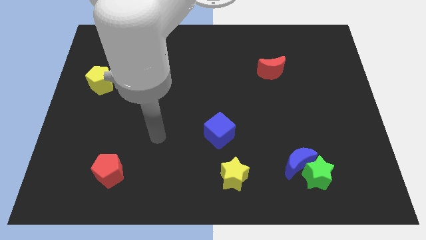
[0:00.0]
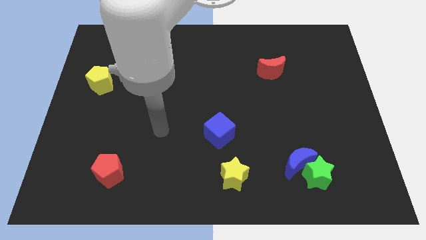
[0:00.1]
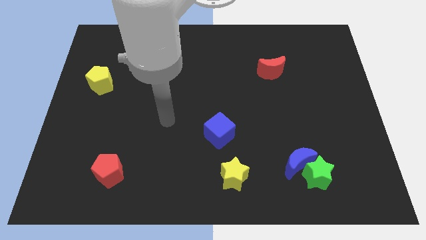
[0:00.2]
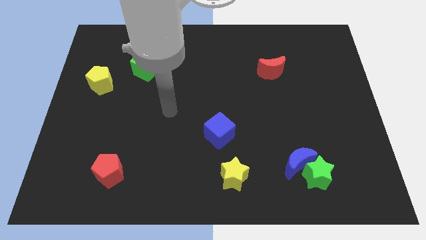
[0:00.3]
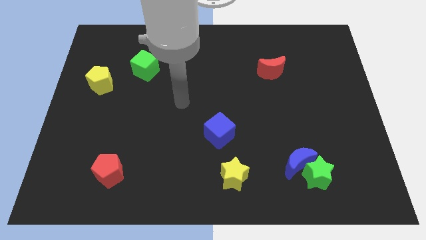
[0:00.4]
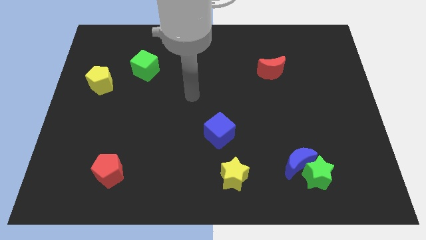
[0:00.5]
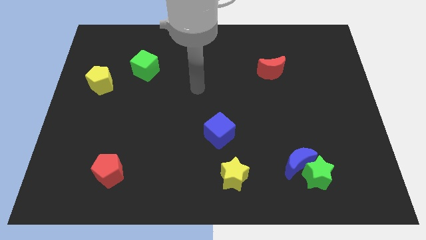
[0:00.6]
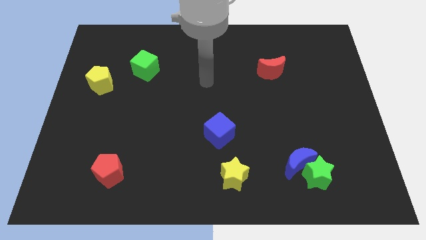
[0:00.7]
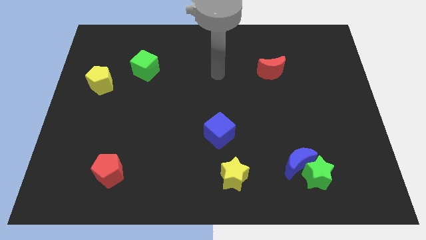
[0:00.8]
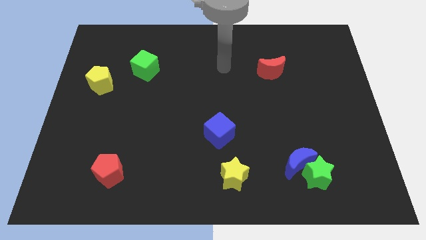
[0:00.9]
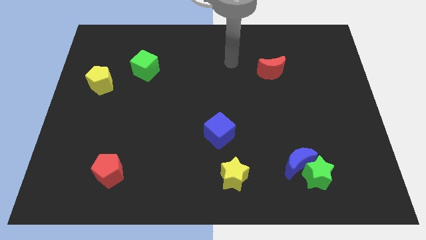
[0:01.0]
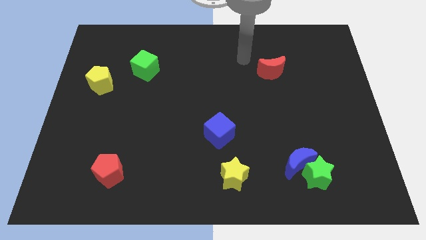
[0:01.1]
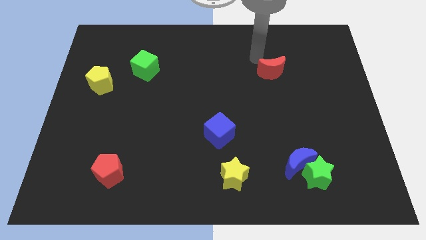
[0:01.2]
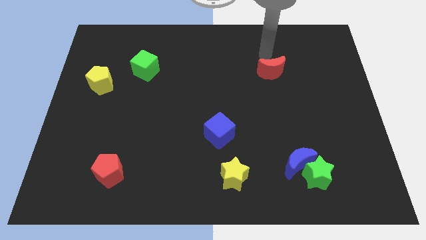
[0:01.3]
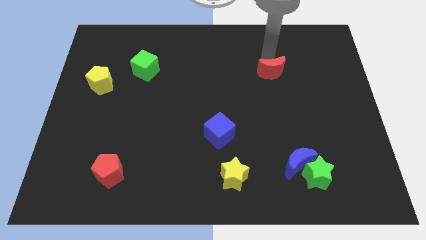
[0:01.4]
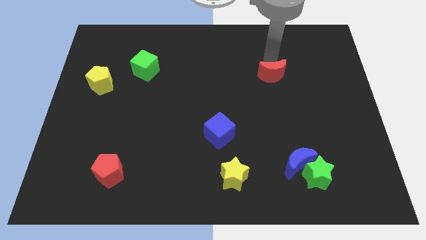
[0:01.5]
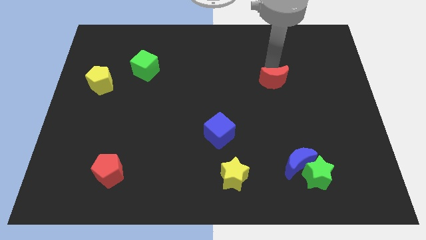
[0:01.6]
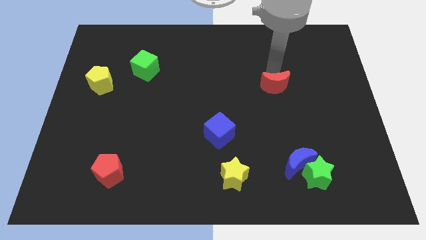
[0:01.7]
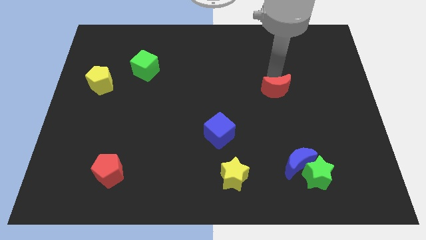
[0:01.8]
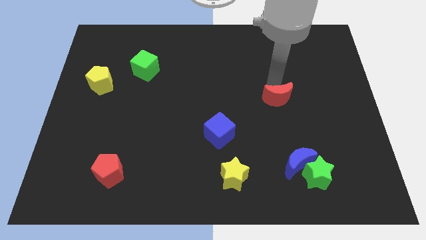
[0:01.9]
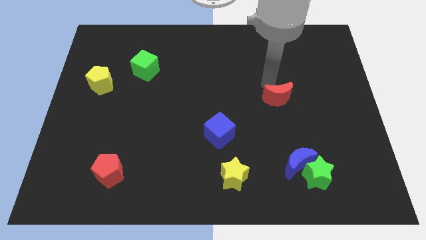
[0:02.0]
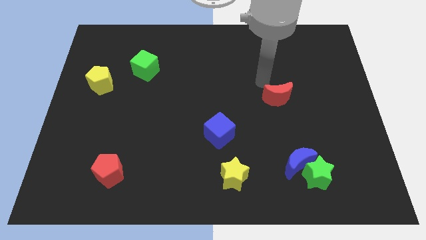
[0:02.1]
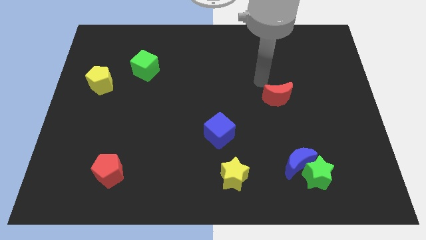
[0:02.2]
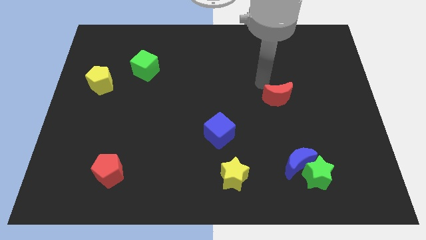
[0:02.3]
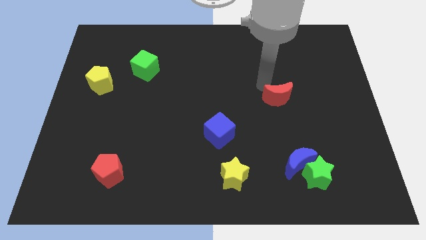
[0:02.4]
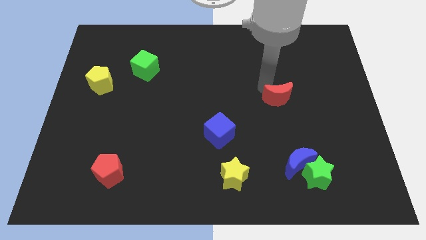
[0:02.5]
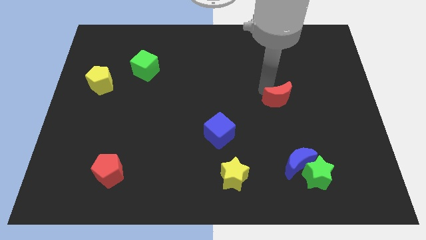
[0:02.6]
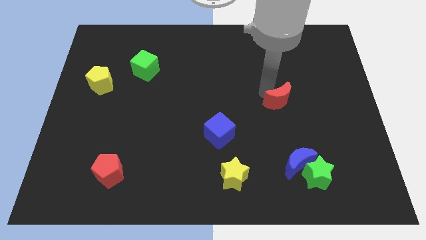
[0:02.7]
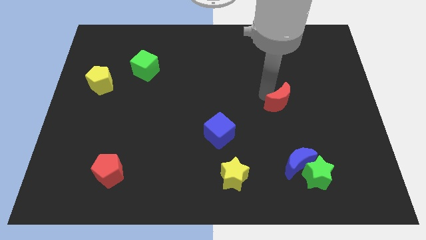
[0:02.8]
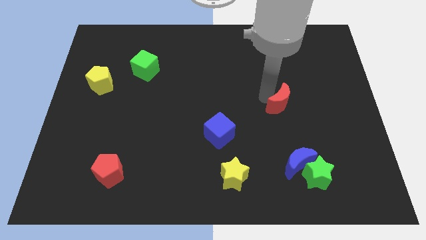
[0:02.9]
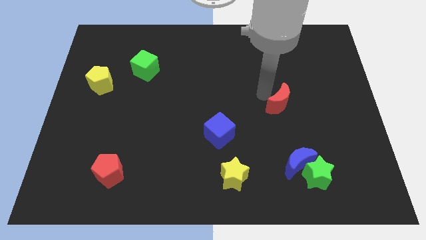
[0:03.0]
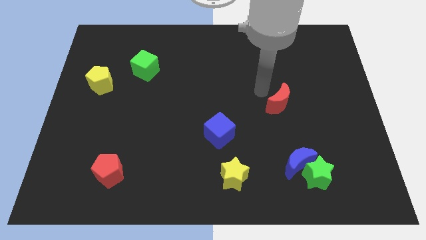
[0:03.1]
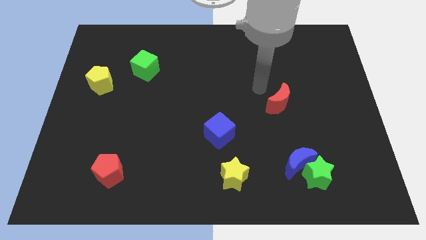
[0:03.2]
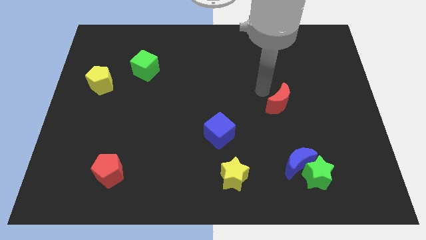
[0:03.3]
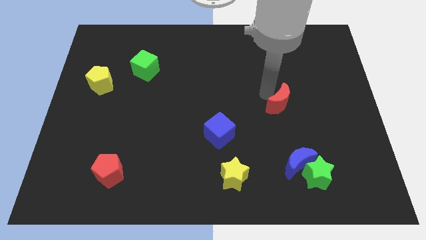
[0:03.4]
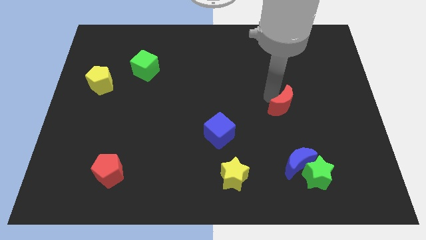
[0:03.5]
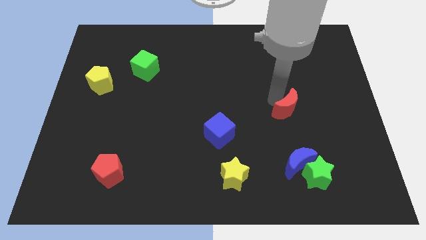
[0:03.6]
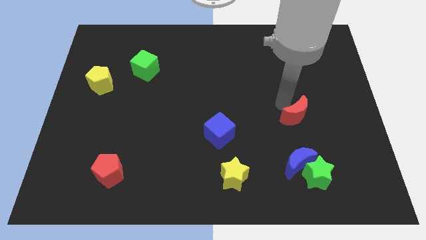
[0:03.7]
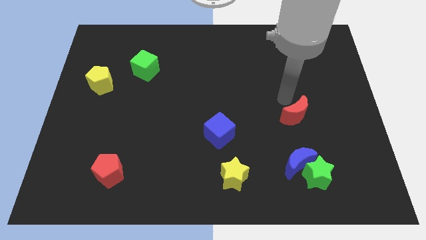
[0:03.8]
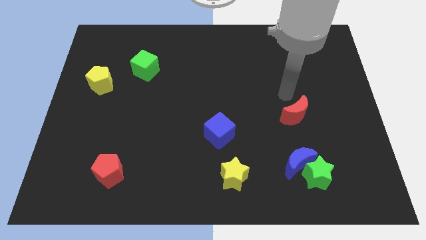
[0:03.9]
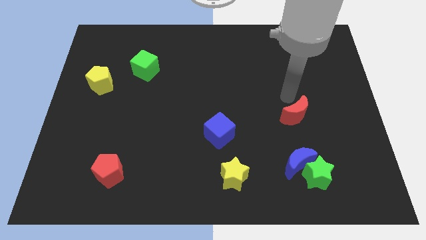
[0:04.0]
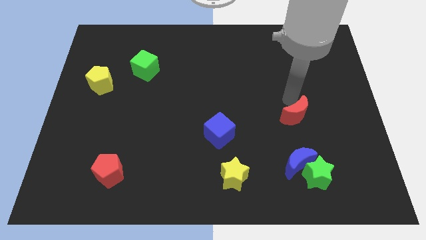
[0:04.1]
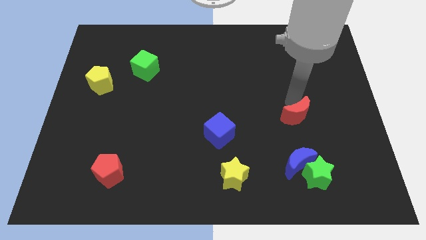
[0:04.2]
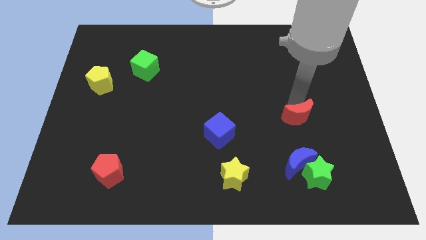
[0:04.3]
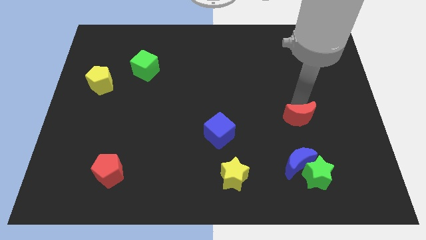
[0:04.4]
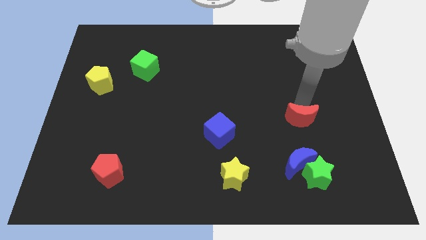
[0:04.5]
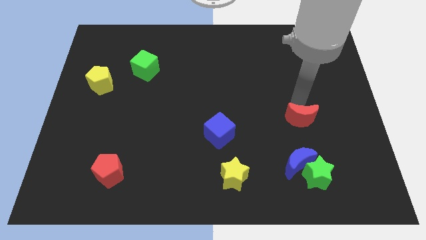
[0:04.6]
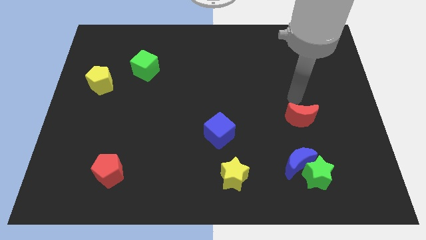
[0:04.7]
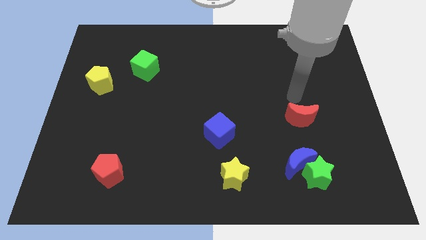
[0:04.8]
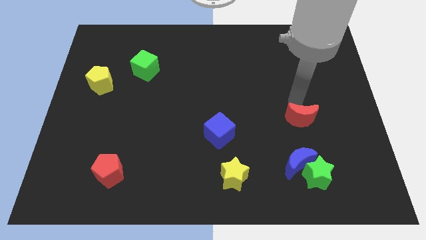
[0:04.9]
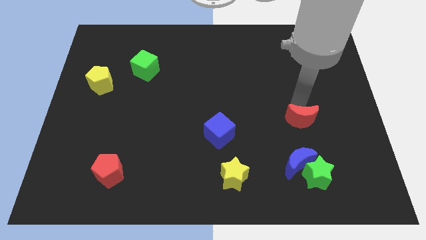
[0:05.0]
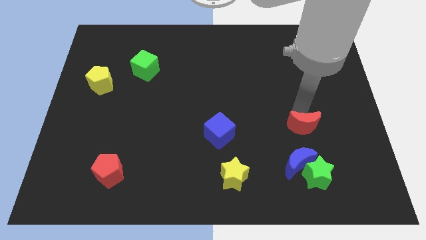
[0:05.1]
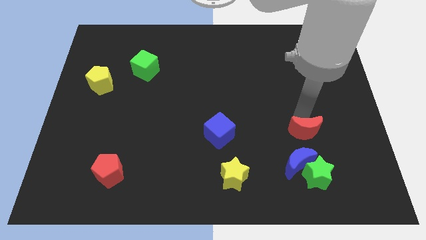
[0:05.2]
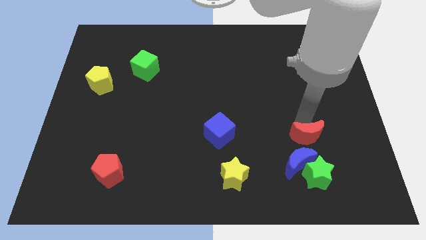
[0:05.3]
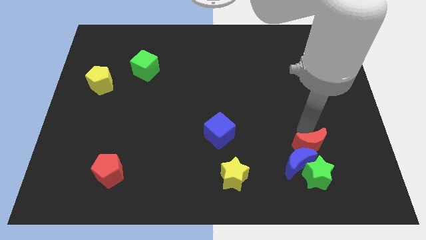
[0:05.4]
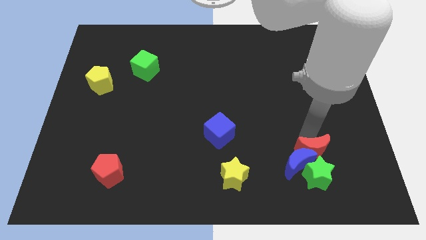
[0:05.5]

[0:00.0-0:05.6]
push the red moon close to the green star

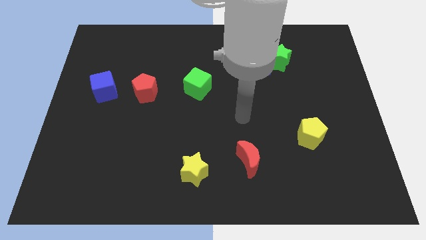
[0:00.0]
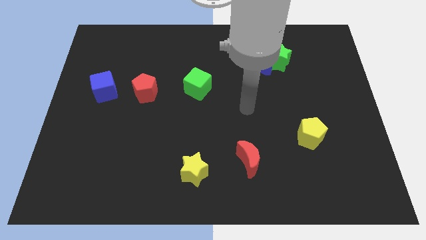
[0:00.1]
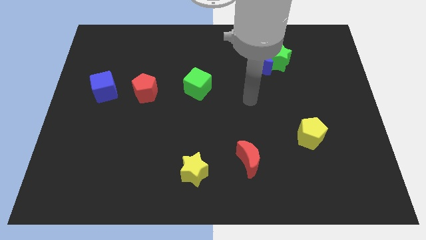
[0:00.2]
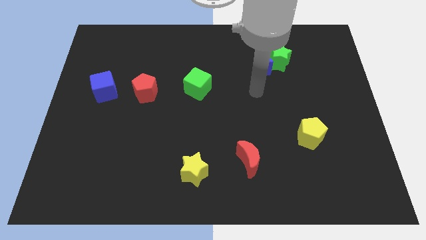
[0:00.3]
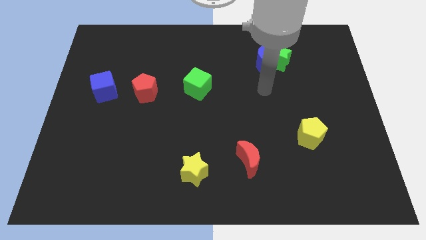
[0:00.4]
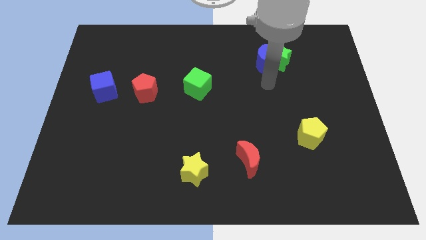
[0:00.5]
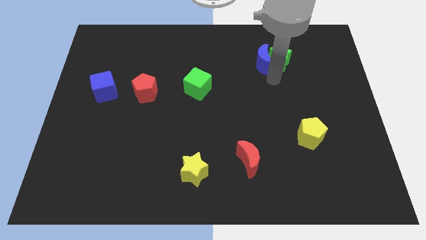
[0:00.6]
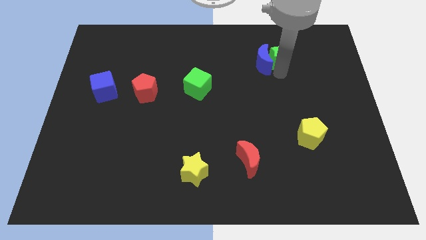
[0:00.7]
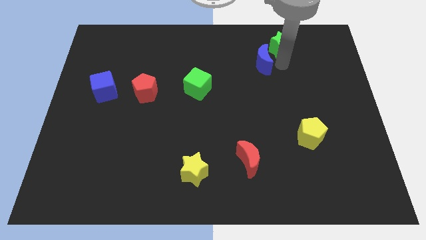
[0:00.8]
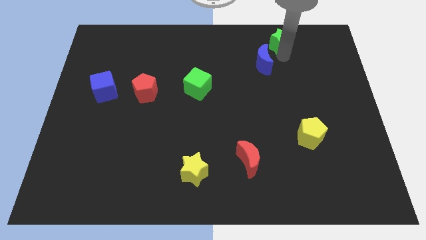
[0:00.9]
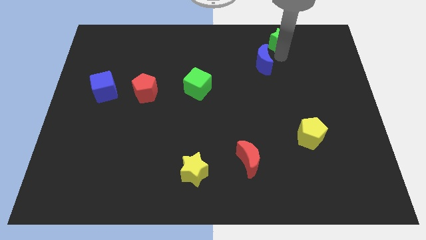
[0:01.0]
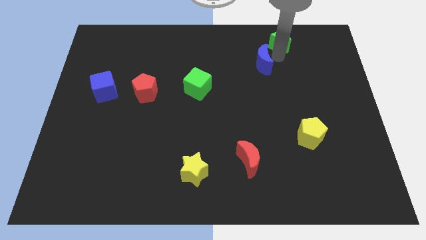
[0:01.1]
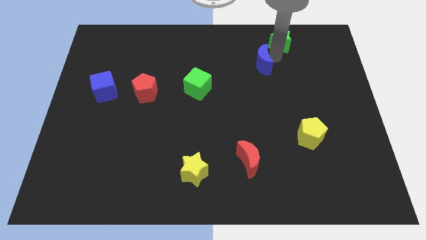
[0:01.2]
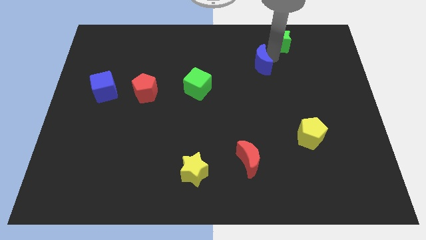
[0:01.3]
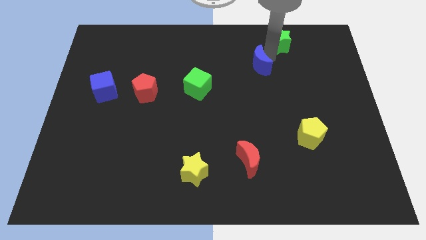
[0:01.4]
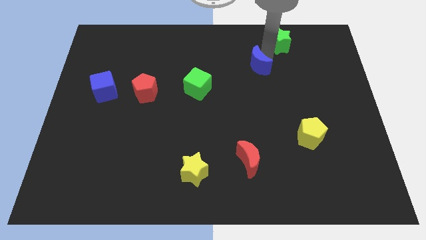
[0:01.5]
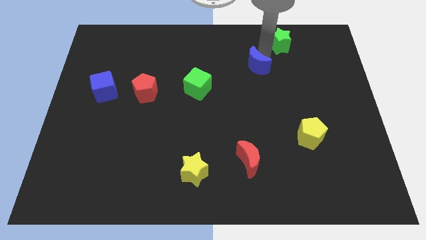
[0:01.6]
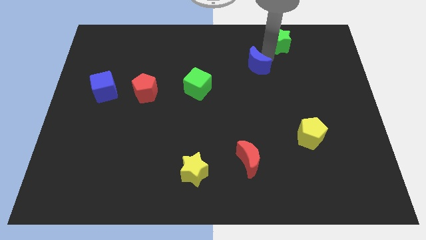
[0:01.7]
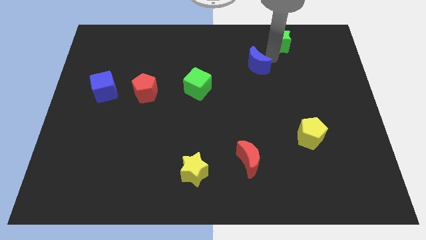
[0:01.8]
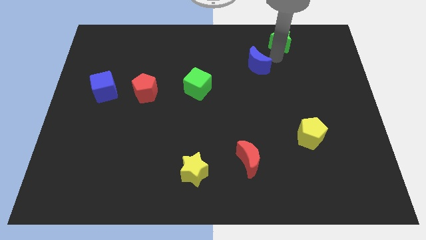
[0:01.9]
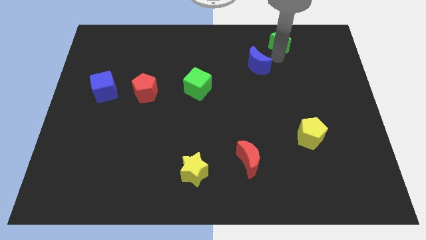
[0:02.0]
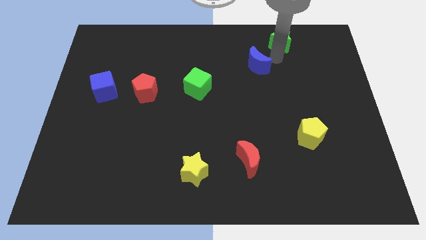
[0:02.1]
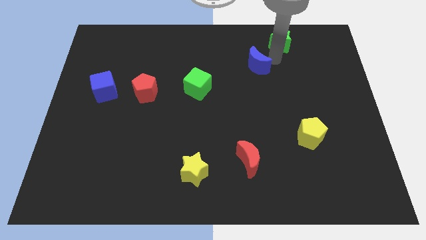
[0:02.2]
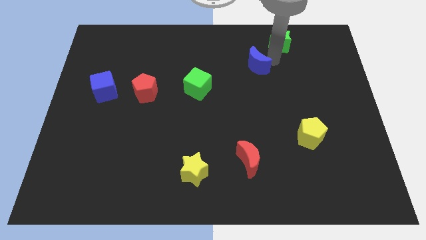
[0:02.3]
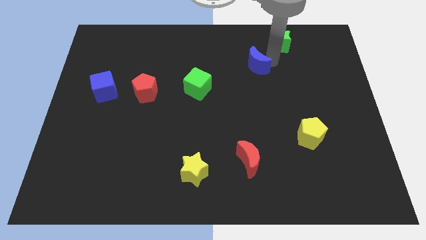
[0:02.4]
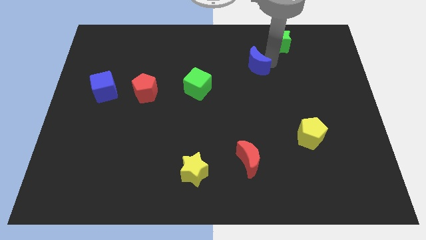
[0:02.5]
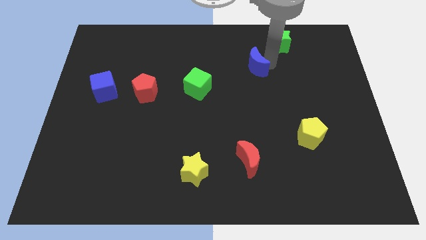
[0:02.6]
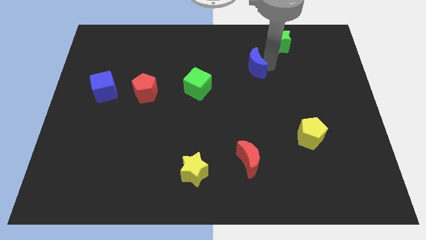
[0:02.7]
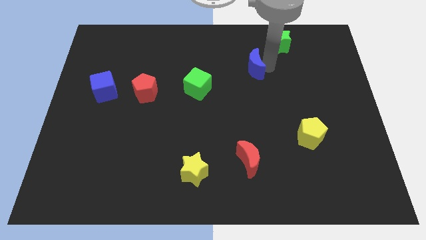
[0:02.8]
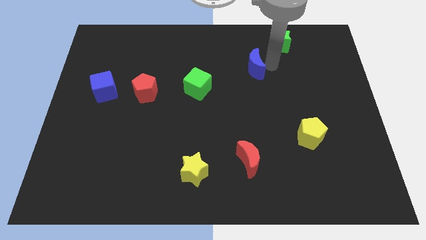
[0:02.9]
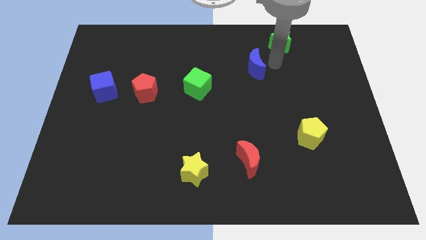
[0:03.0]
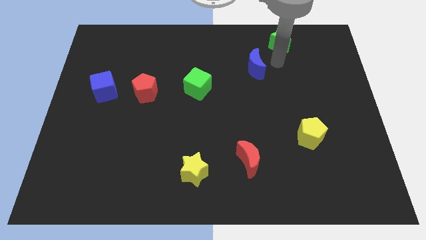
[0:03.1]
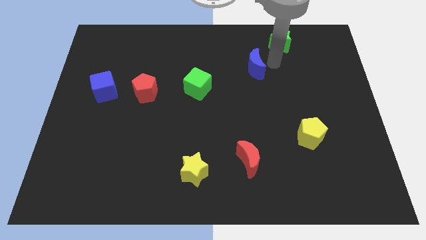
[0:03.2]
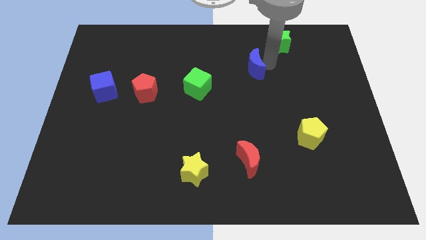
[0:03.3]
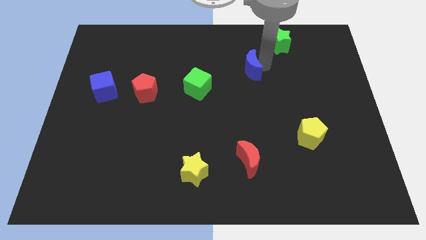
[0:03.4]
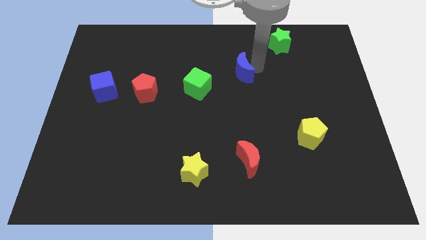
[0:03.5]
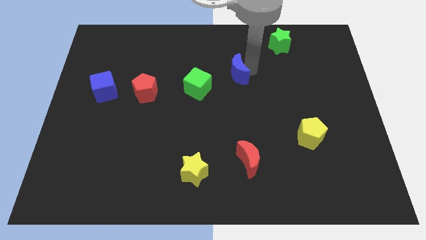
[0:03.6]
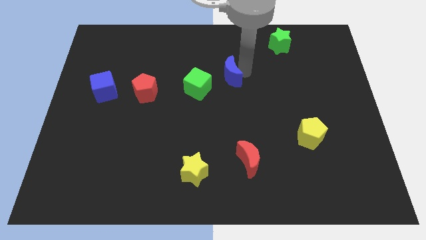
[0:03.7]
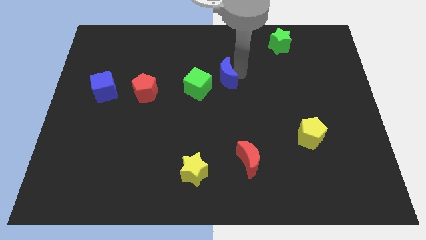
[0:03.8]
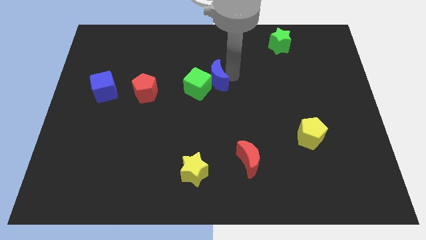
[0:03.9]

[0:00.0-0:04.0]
move the blue moon next to the green cube
